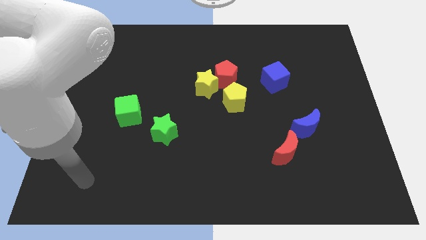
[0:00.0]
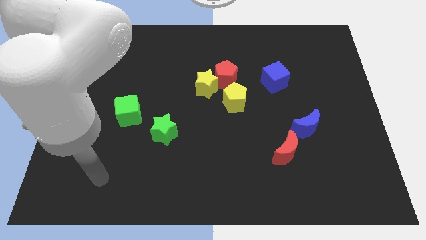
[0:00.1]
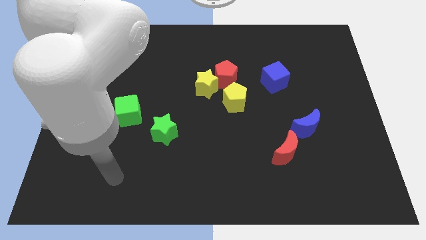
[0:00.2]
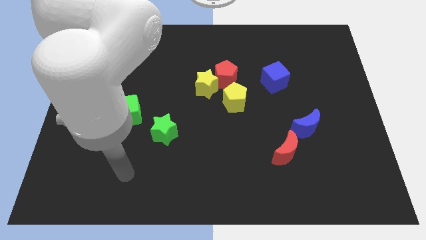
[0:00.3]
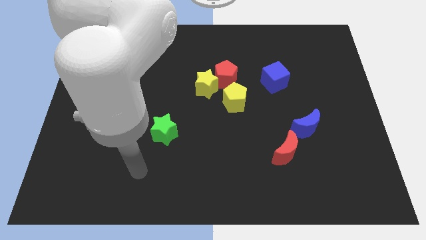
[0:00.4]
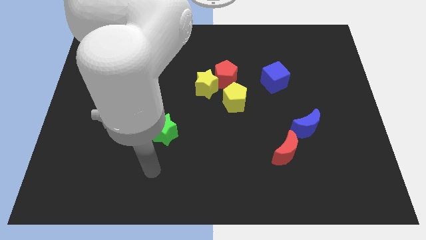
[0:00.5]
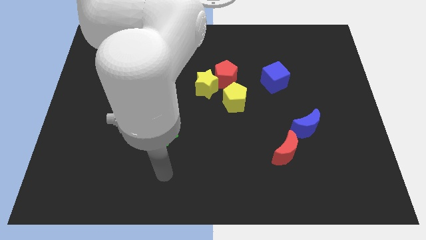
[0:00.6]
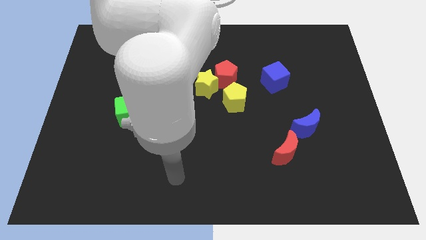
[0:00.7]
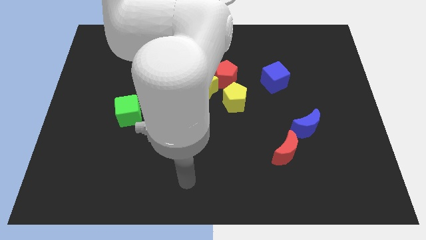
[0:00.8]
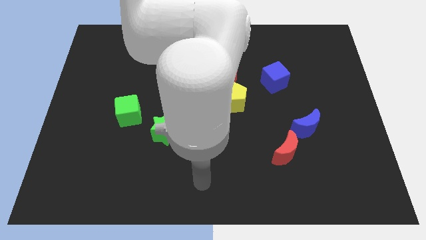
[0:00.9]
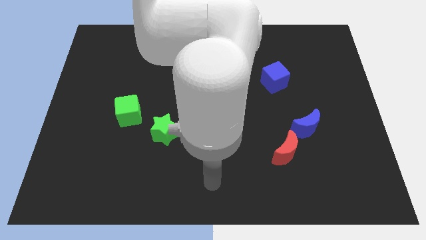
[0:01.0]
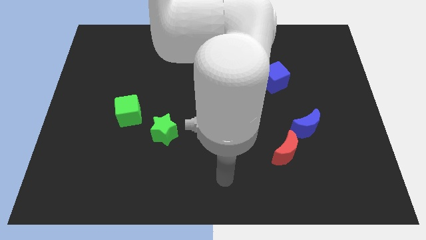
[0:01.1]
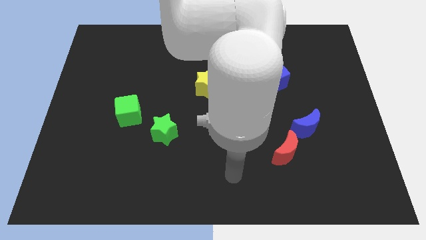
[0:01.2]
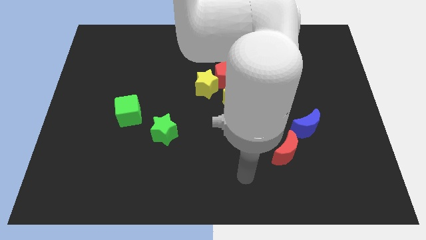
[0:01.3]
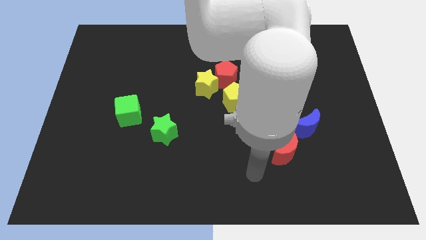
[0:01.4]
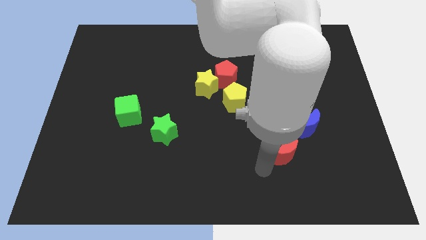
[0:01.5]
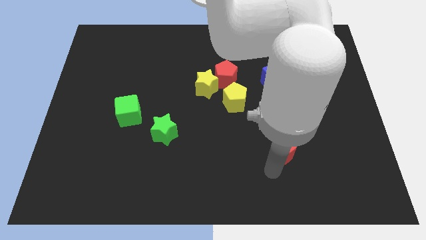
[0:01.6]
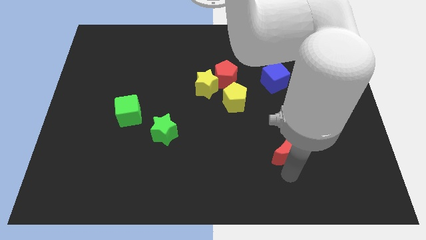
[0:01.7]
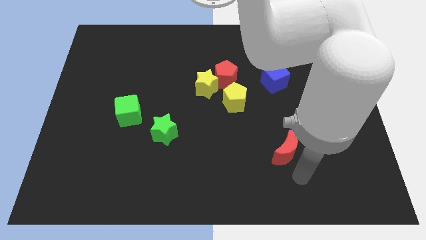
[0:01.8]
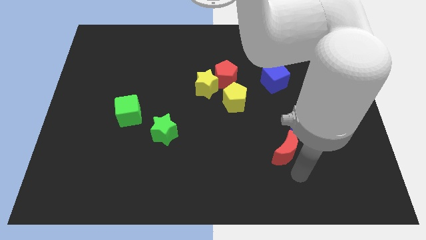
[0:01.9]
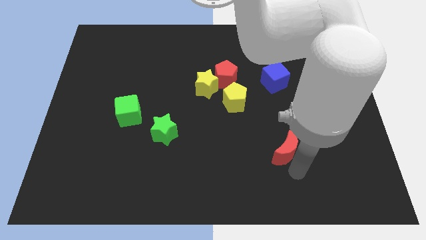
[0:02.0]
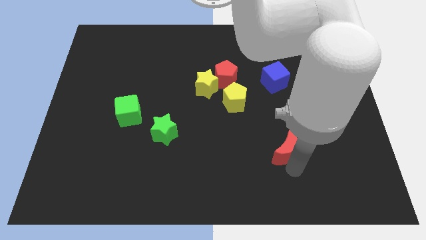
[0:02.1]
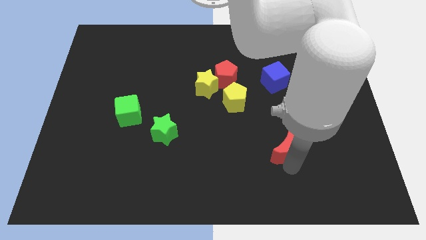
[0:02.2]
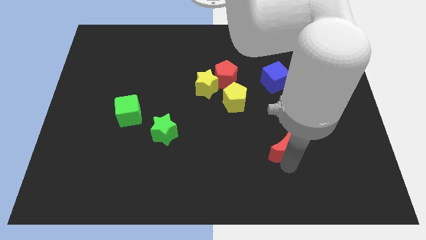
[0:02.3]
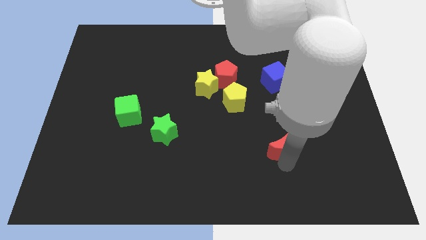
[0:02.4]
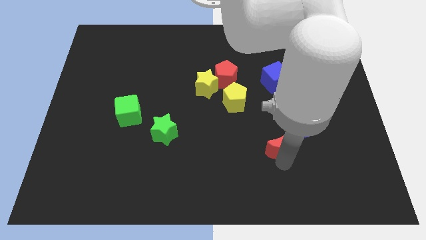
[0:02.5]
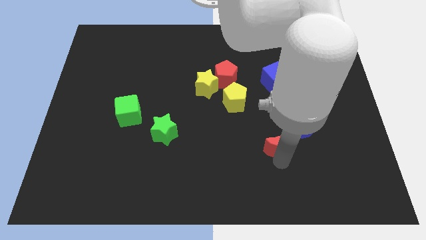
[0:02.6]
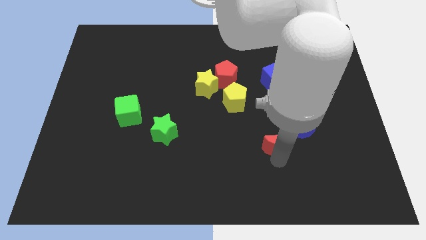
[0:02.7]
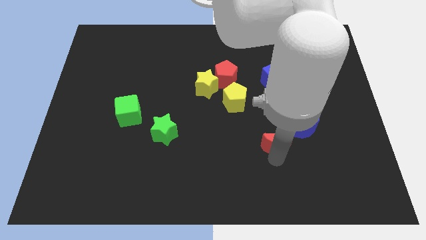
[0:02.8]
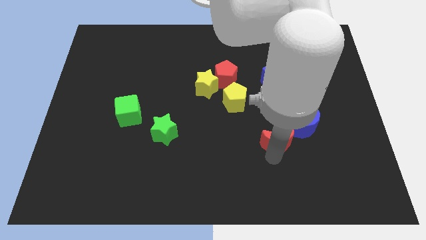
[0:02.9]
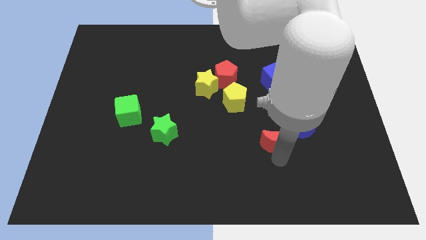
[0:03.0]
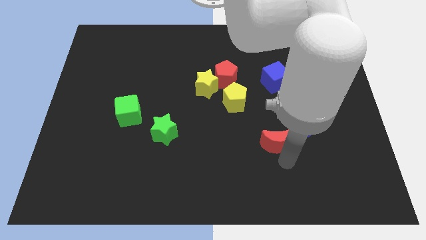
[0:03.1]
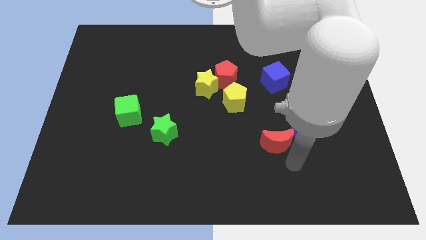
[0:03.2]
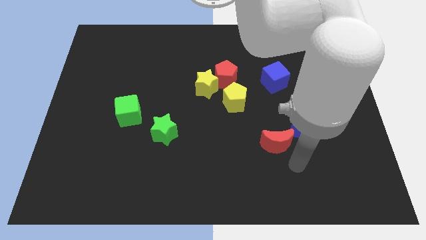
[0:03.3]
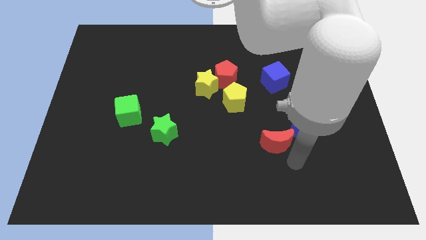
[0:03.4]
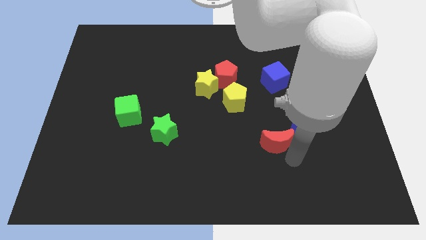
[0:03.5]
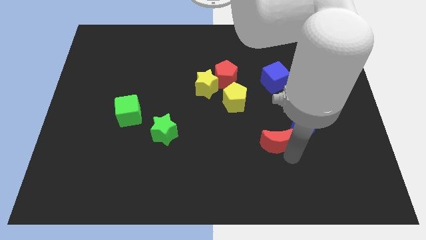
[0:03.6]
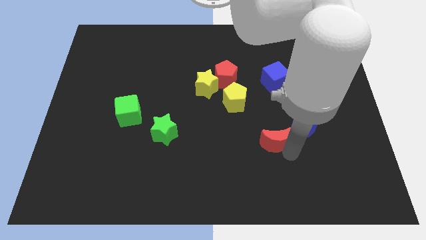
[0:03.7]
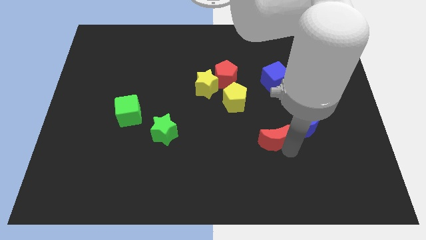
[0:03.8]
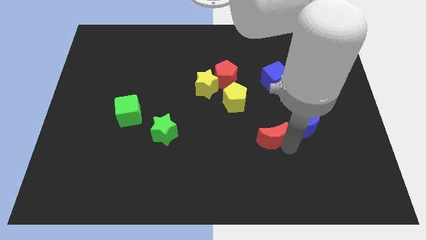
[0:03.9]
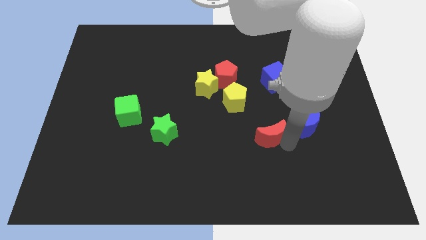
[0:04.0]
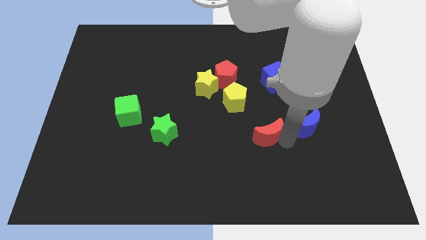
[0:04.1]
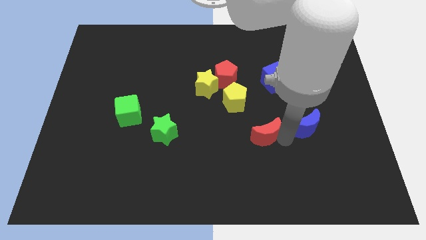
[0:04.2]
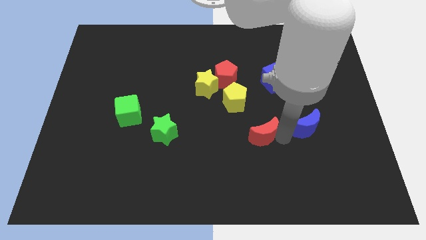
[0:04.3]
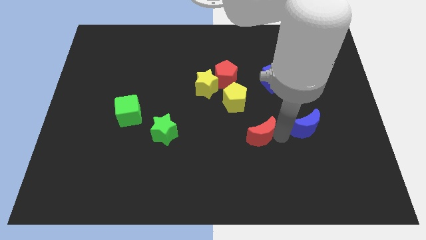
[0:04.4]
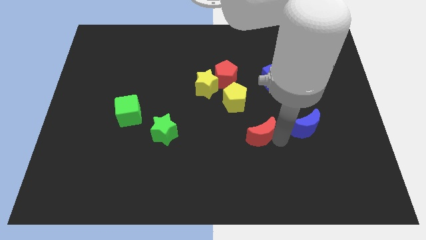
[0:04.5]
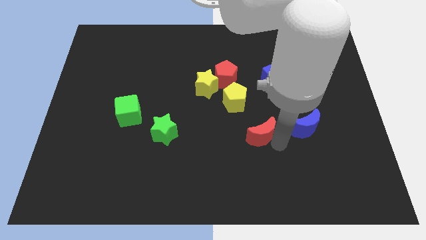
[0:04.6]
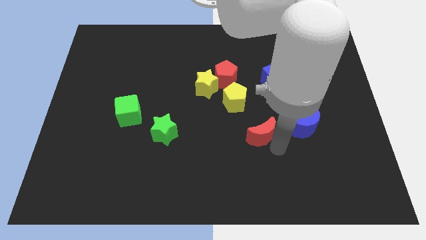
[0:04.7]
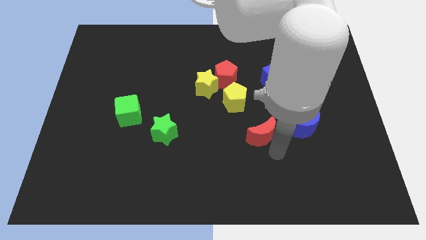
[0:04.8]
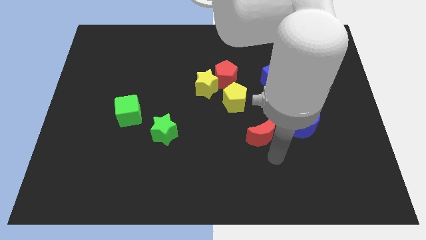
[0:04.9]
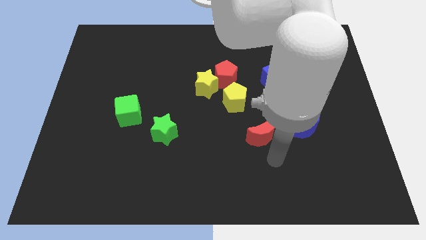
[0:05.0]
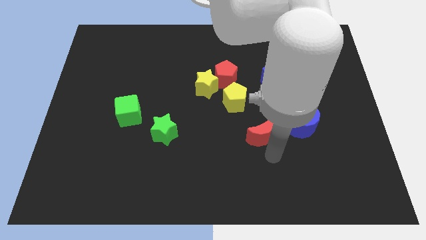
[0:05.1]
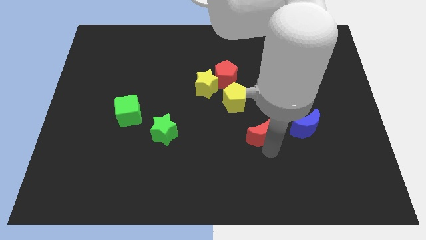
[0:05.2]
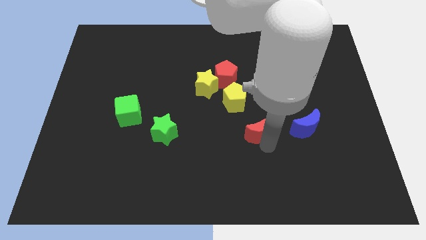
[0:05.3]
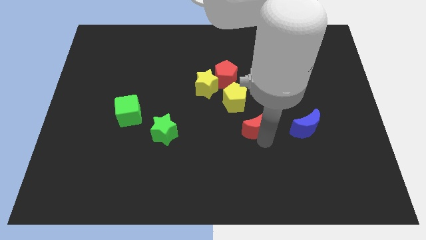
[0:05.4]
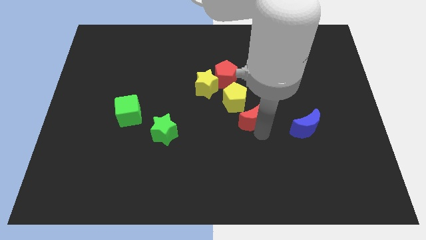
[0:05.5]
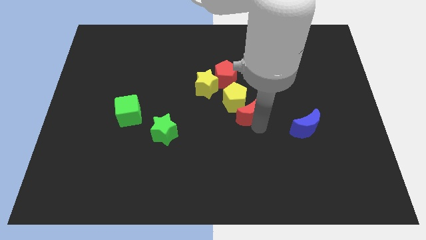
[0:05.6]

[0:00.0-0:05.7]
slide the red moon towards the yellow pentagon
